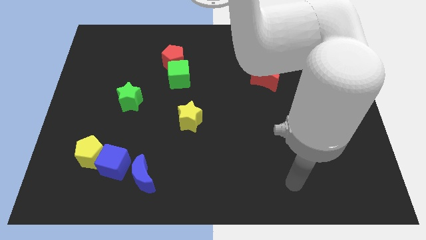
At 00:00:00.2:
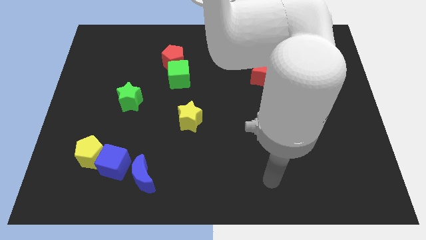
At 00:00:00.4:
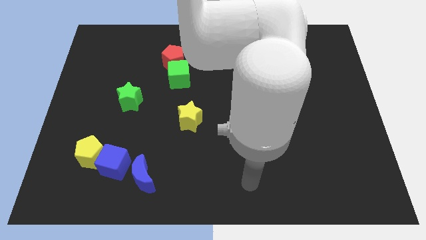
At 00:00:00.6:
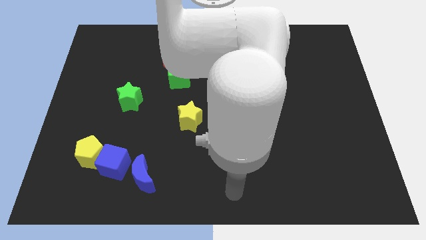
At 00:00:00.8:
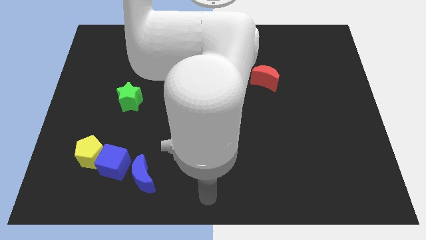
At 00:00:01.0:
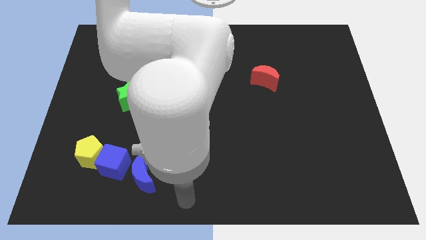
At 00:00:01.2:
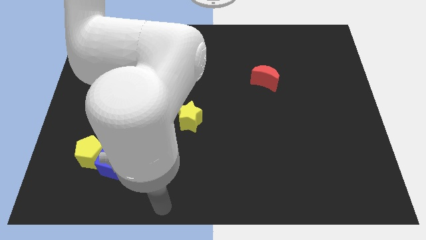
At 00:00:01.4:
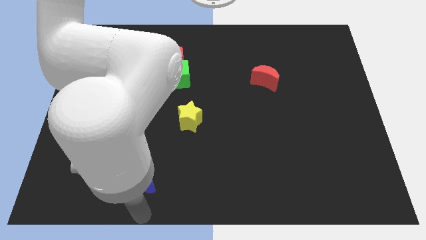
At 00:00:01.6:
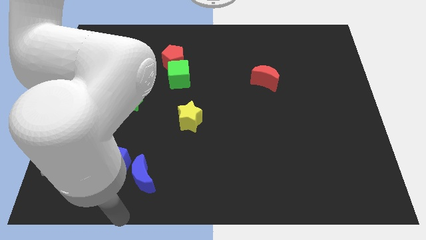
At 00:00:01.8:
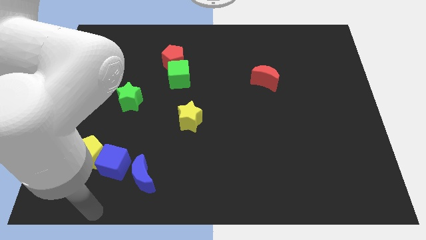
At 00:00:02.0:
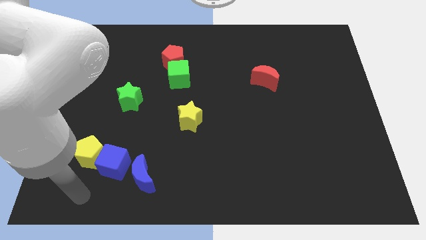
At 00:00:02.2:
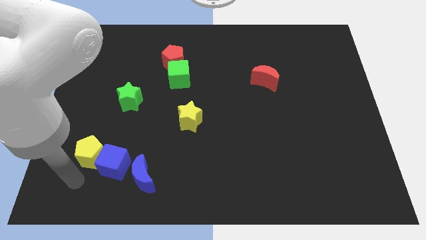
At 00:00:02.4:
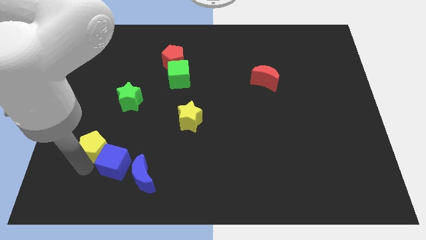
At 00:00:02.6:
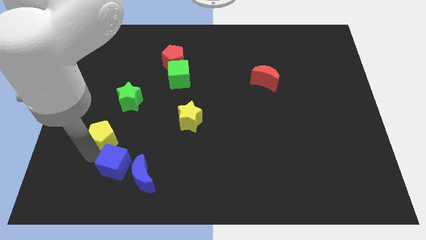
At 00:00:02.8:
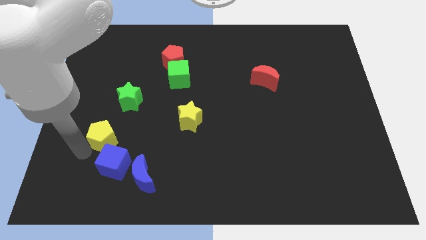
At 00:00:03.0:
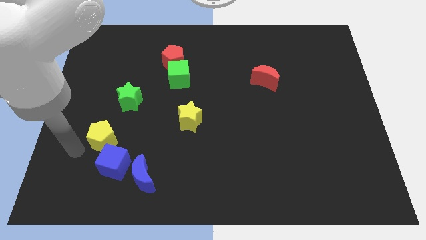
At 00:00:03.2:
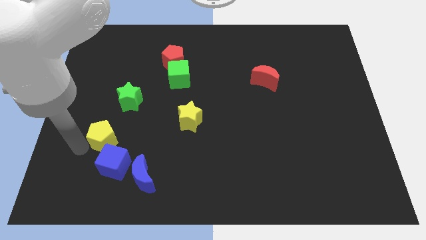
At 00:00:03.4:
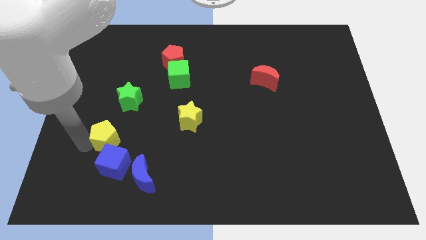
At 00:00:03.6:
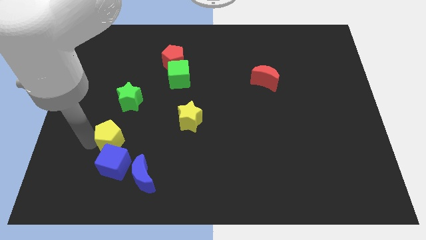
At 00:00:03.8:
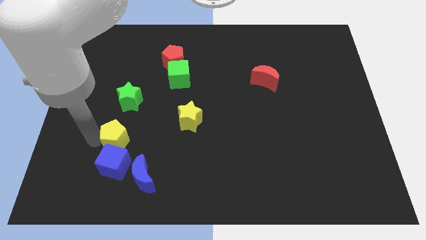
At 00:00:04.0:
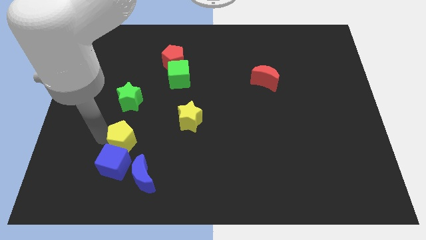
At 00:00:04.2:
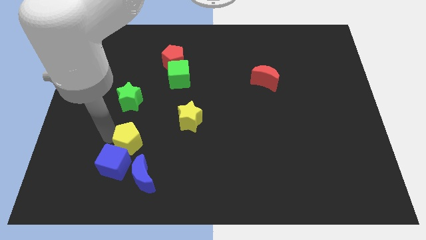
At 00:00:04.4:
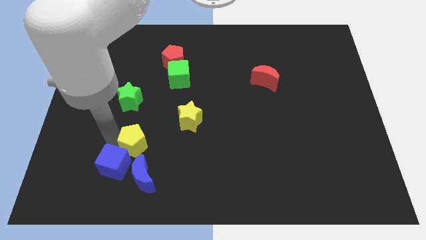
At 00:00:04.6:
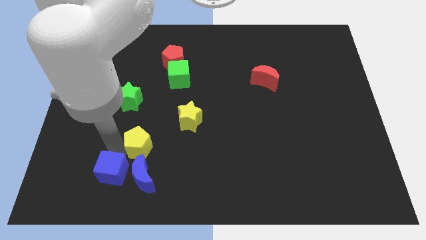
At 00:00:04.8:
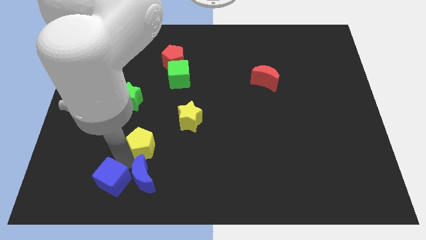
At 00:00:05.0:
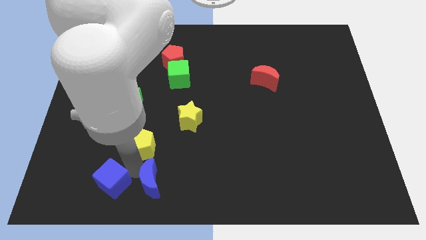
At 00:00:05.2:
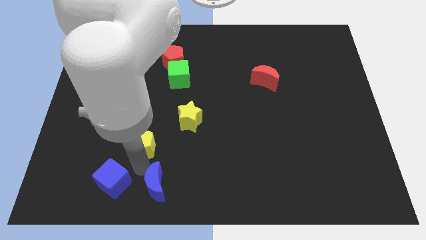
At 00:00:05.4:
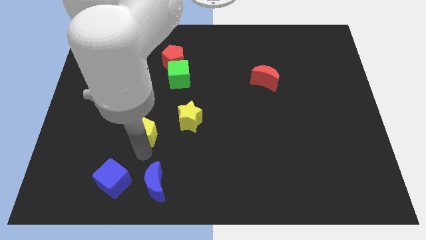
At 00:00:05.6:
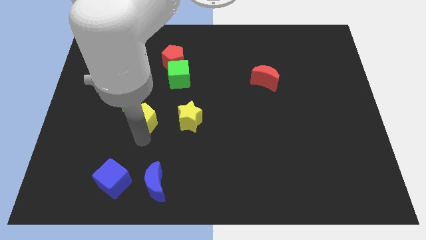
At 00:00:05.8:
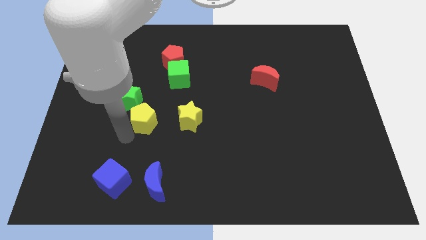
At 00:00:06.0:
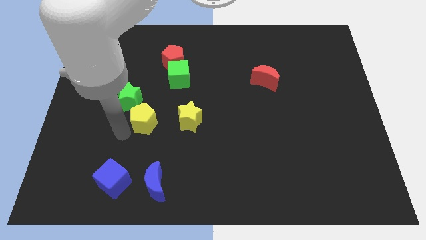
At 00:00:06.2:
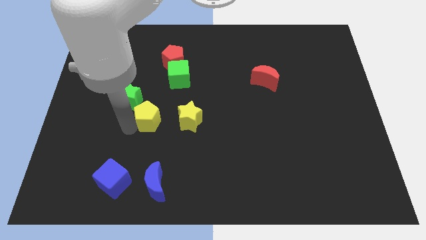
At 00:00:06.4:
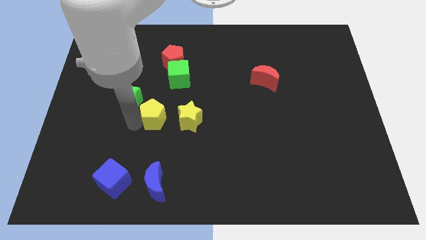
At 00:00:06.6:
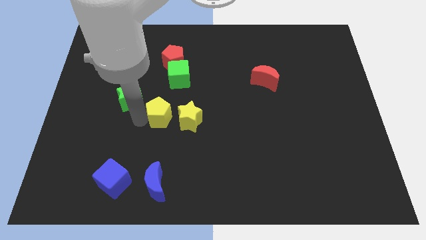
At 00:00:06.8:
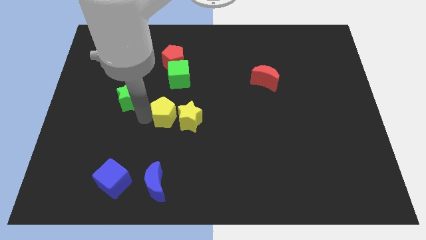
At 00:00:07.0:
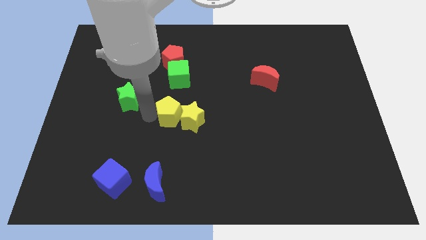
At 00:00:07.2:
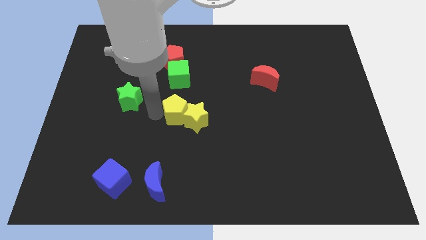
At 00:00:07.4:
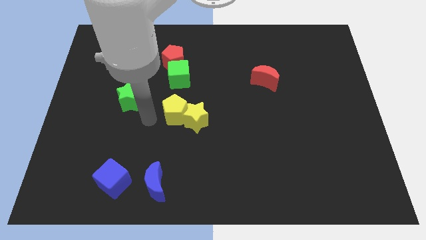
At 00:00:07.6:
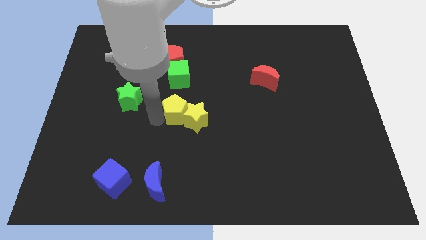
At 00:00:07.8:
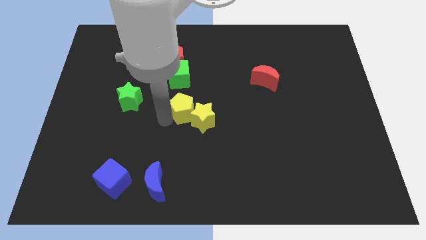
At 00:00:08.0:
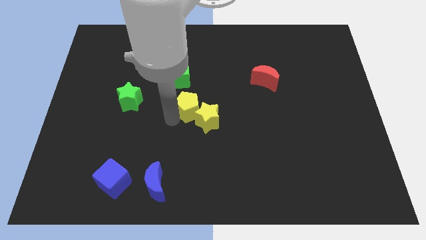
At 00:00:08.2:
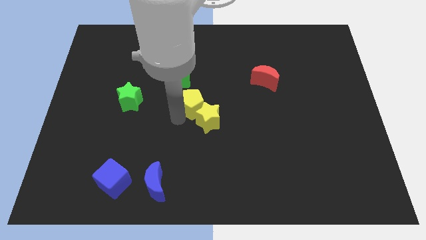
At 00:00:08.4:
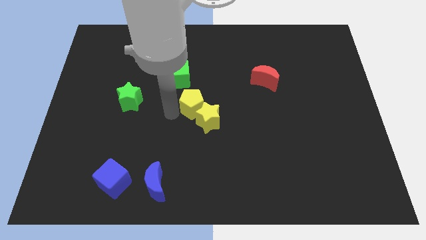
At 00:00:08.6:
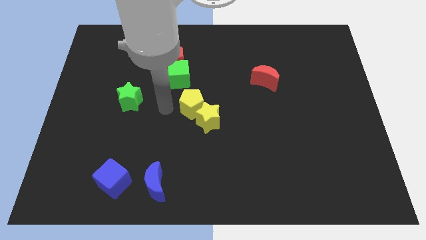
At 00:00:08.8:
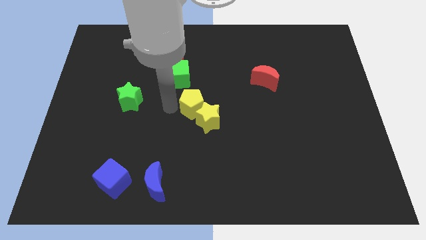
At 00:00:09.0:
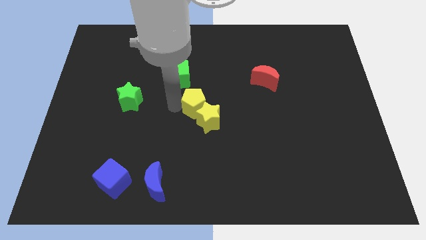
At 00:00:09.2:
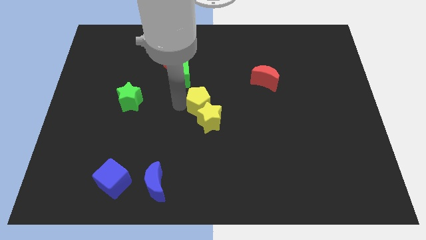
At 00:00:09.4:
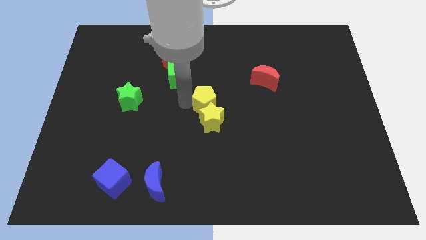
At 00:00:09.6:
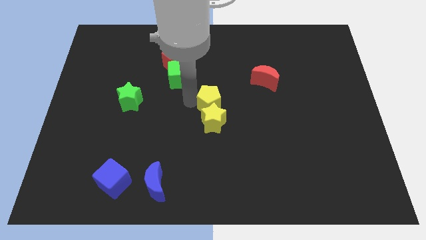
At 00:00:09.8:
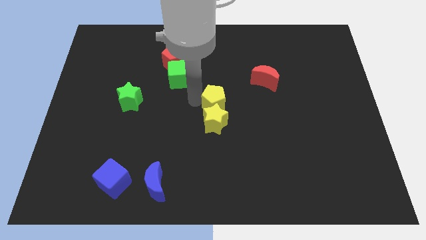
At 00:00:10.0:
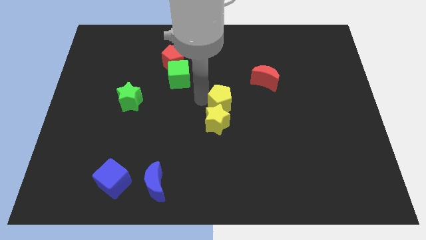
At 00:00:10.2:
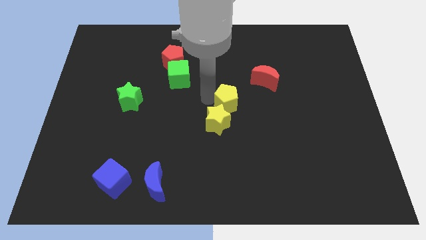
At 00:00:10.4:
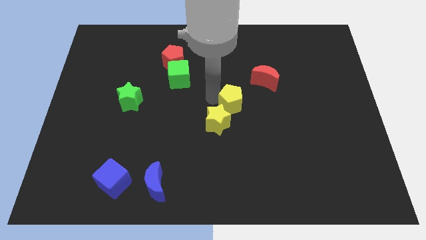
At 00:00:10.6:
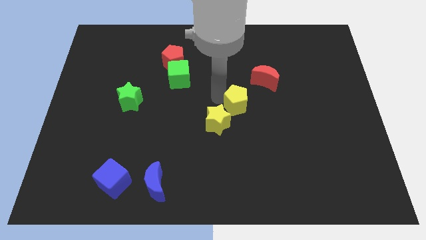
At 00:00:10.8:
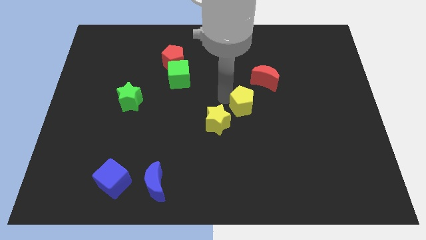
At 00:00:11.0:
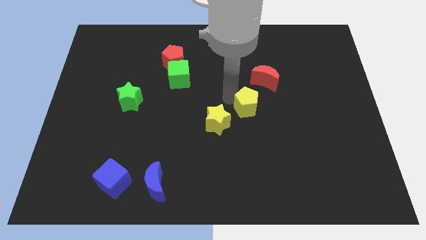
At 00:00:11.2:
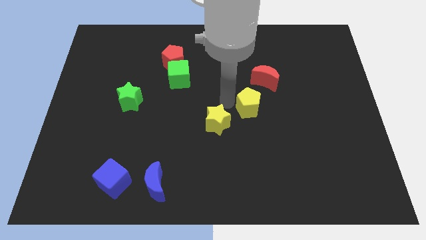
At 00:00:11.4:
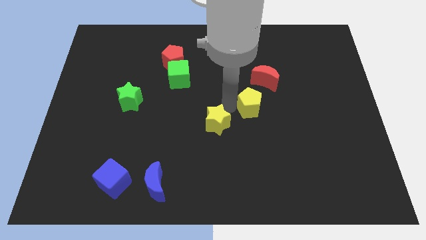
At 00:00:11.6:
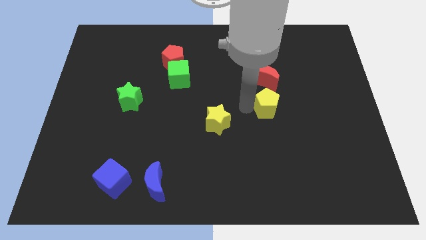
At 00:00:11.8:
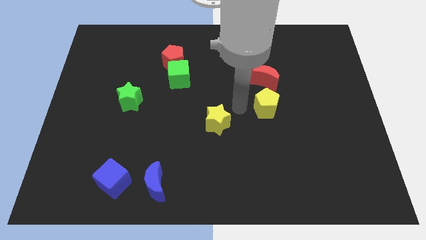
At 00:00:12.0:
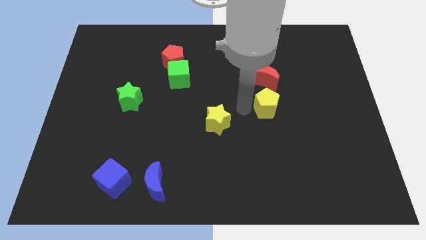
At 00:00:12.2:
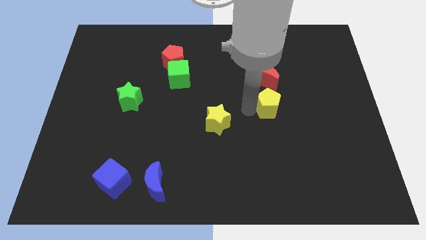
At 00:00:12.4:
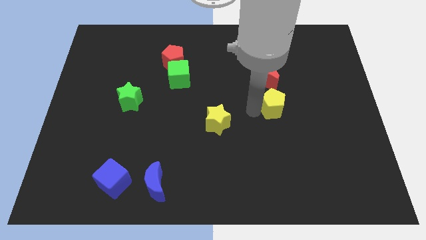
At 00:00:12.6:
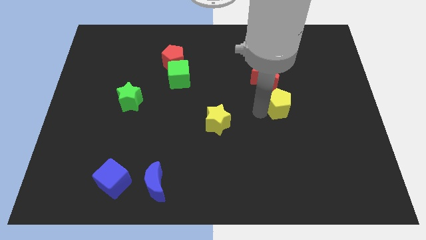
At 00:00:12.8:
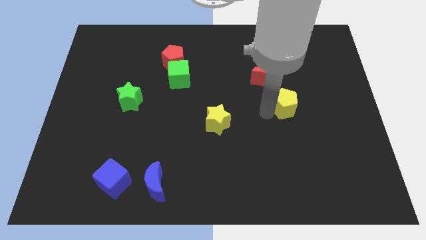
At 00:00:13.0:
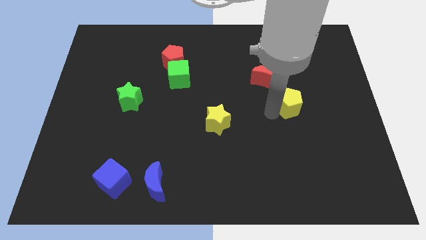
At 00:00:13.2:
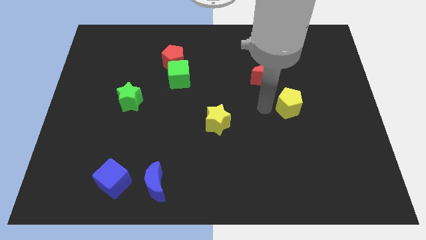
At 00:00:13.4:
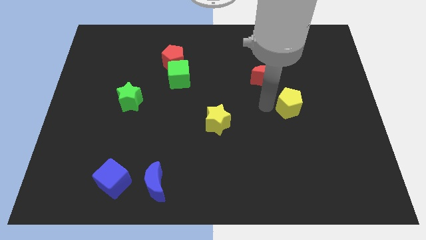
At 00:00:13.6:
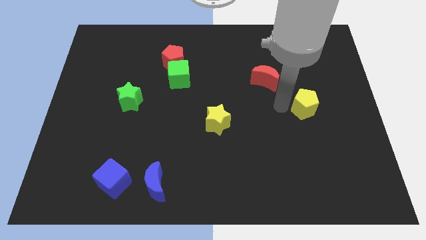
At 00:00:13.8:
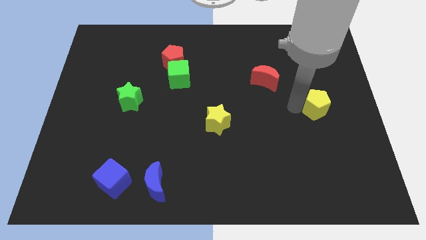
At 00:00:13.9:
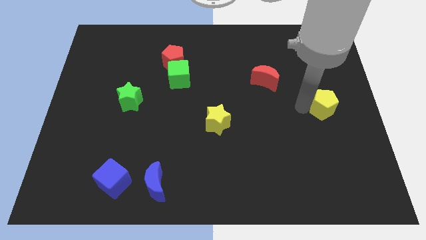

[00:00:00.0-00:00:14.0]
push the yellow pentagon to the right side of the board

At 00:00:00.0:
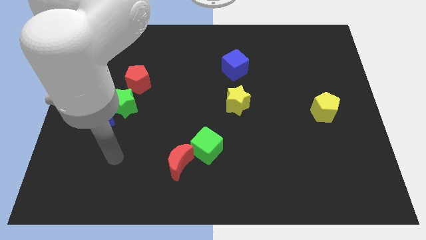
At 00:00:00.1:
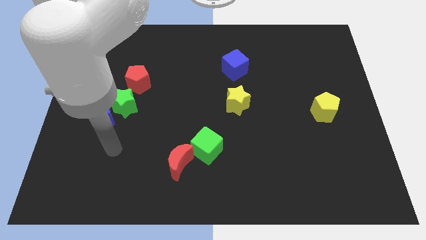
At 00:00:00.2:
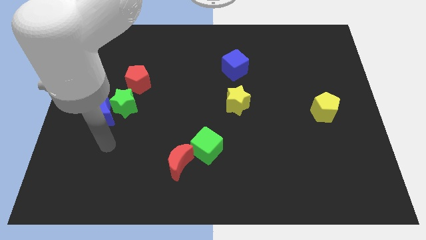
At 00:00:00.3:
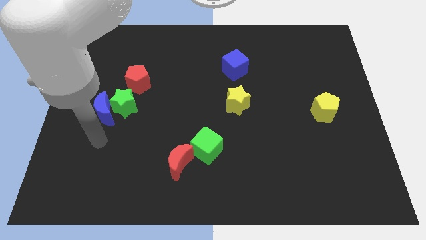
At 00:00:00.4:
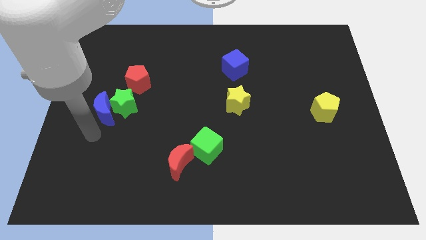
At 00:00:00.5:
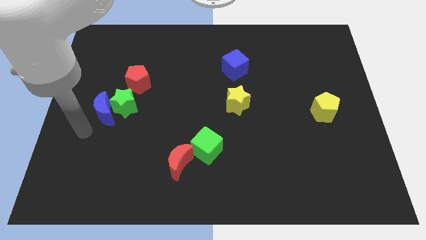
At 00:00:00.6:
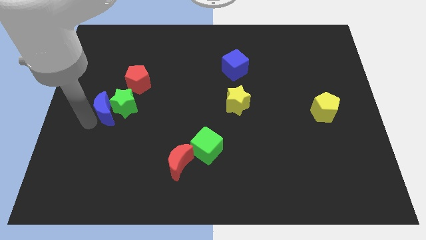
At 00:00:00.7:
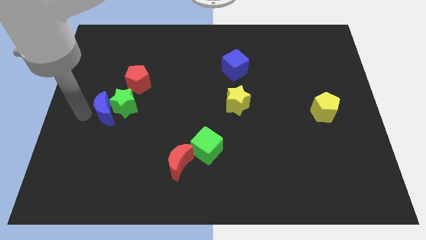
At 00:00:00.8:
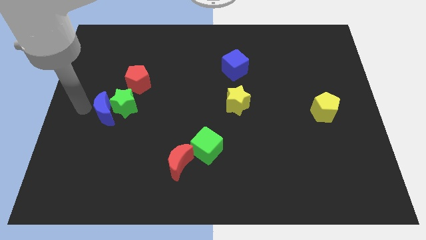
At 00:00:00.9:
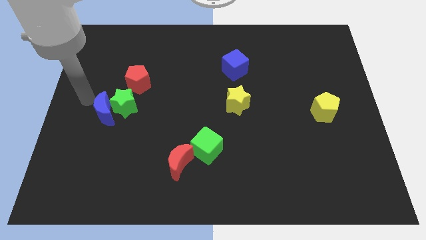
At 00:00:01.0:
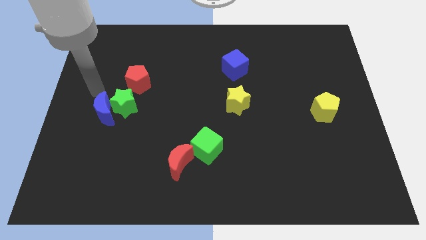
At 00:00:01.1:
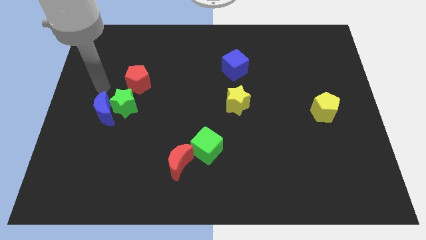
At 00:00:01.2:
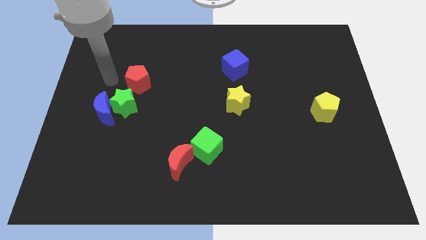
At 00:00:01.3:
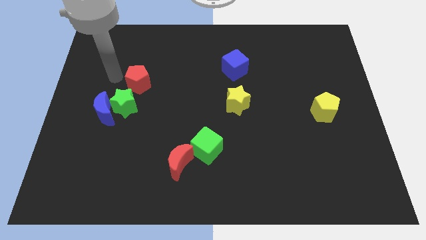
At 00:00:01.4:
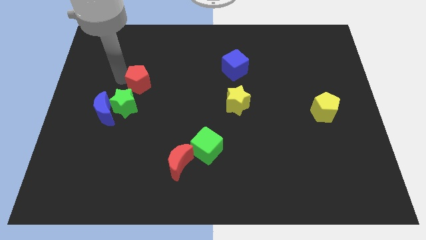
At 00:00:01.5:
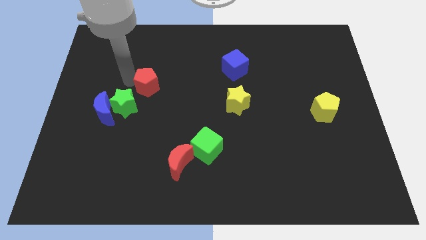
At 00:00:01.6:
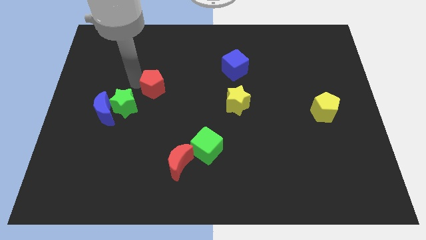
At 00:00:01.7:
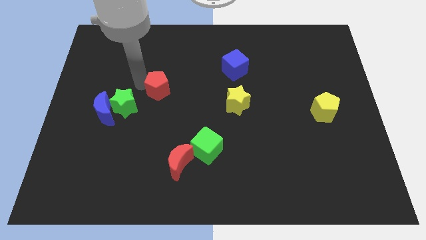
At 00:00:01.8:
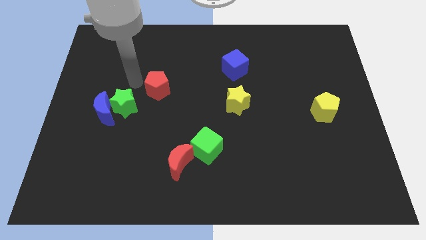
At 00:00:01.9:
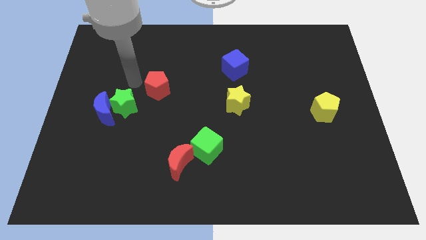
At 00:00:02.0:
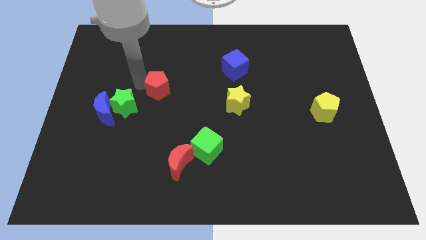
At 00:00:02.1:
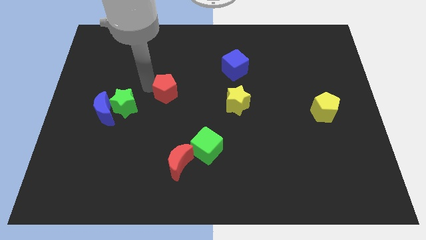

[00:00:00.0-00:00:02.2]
slide the red pentagon to the middle of the board
